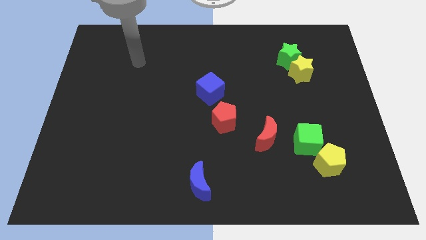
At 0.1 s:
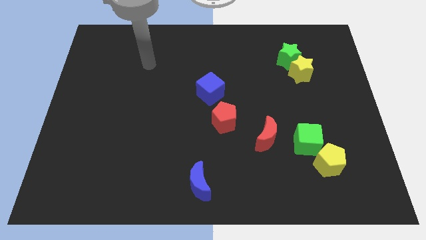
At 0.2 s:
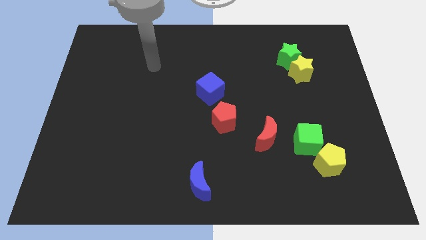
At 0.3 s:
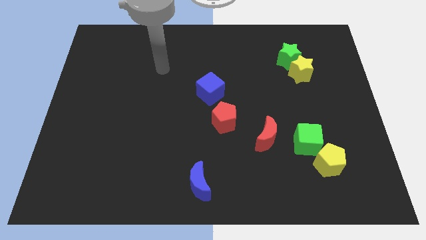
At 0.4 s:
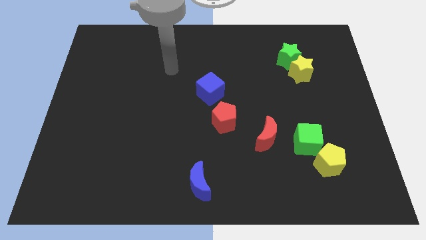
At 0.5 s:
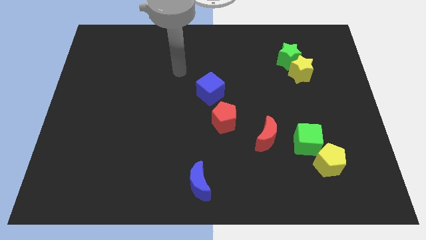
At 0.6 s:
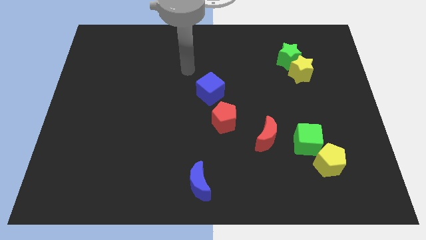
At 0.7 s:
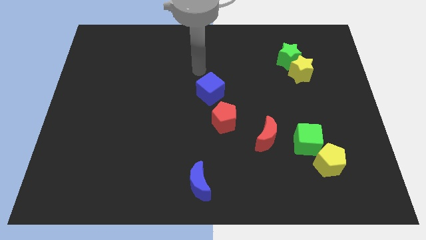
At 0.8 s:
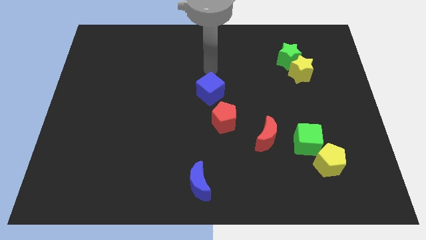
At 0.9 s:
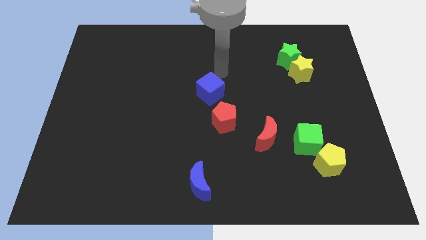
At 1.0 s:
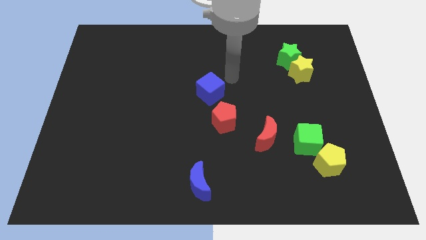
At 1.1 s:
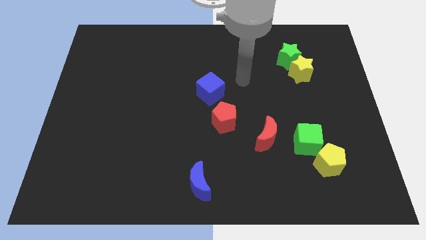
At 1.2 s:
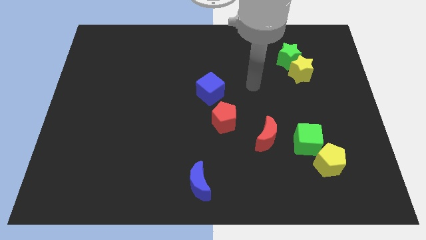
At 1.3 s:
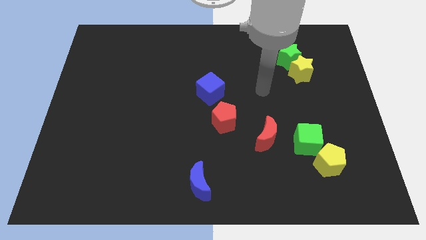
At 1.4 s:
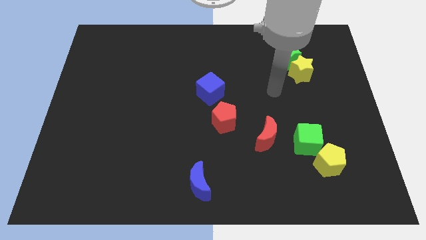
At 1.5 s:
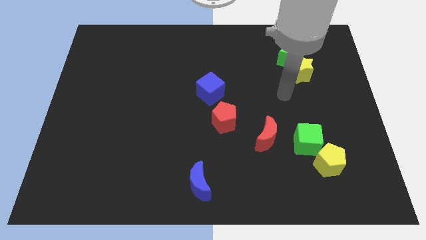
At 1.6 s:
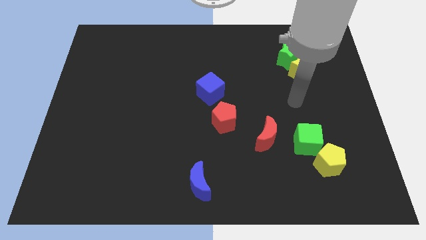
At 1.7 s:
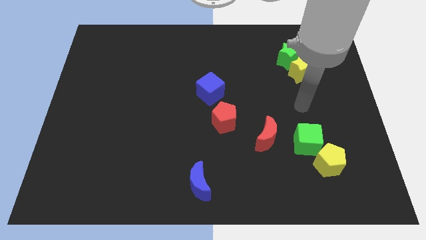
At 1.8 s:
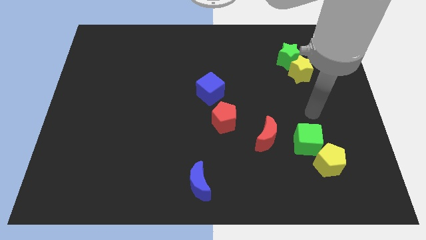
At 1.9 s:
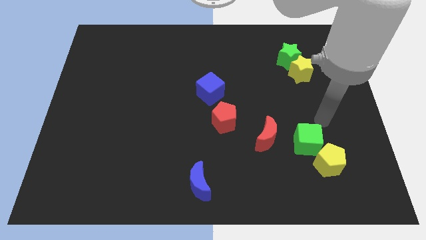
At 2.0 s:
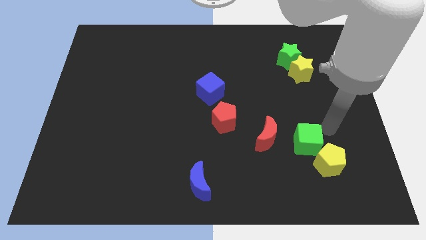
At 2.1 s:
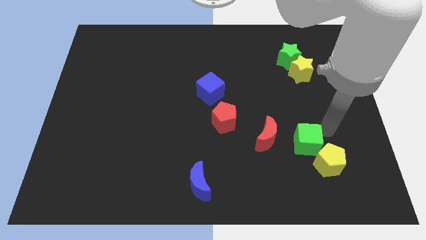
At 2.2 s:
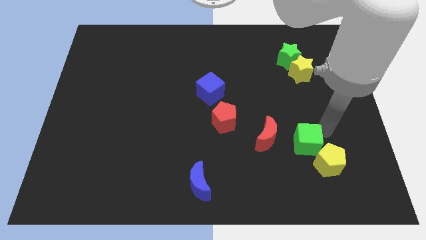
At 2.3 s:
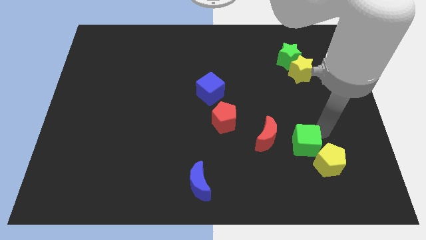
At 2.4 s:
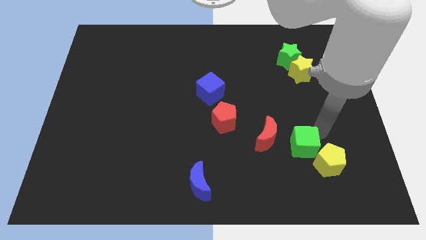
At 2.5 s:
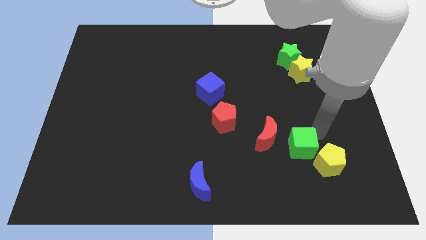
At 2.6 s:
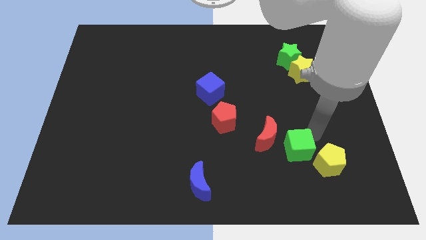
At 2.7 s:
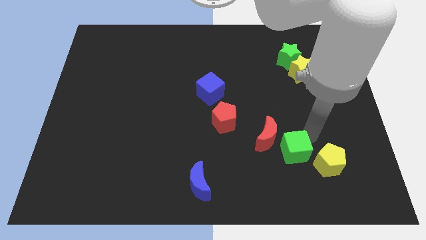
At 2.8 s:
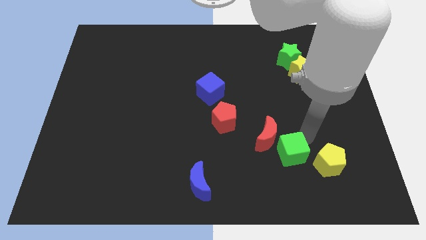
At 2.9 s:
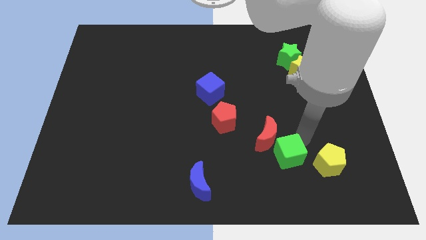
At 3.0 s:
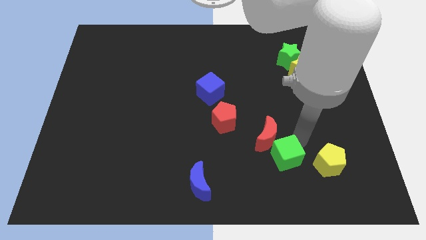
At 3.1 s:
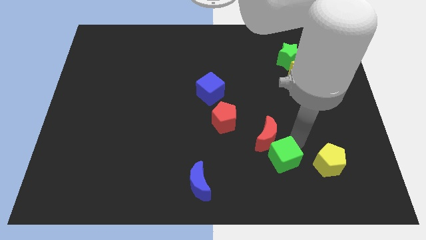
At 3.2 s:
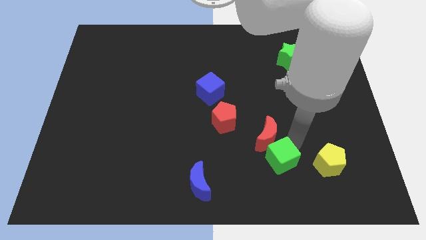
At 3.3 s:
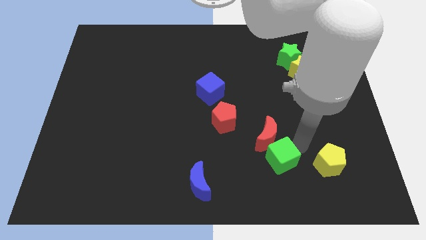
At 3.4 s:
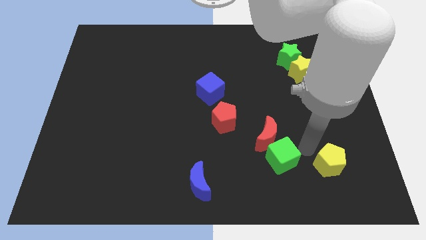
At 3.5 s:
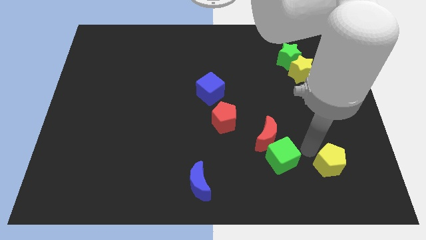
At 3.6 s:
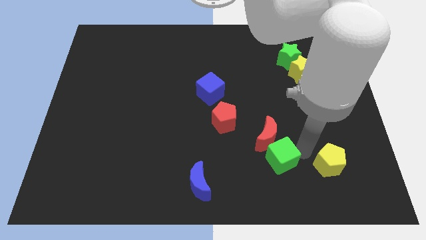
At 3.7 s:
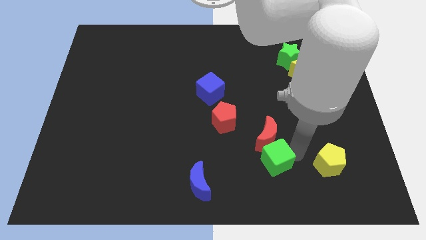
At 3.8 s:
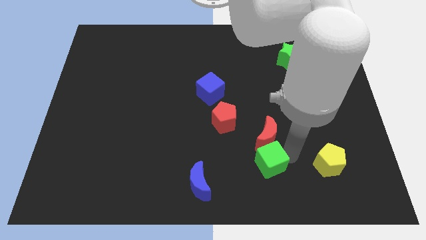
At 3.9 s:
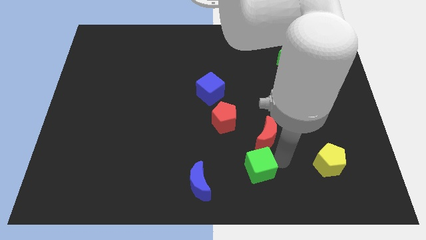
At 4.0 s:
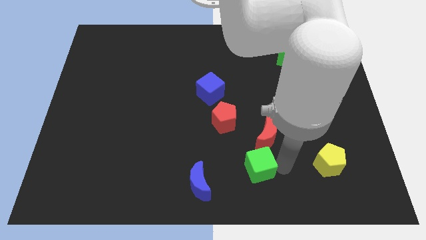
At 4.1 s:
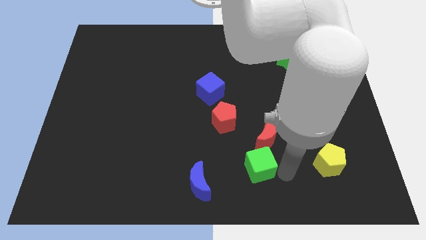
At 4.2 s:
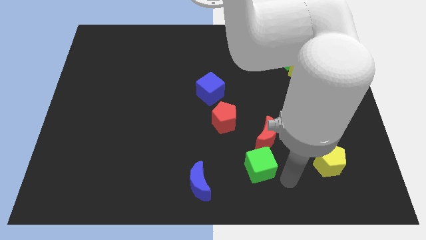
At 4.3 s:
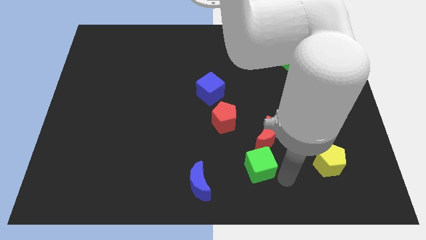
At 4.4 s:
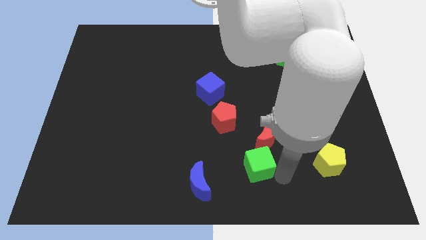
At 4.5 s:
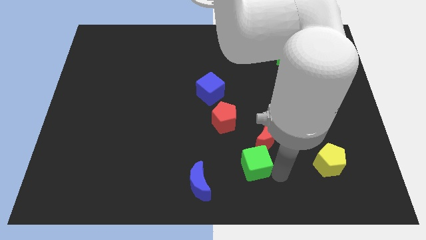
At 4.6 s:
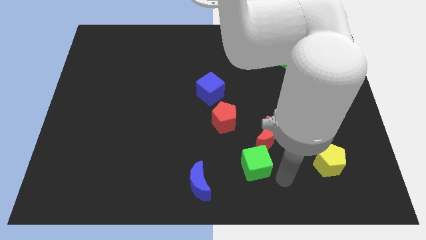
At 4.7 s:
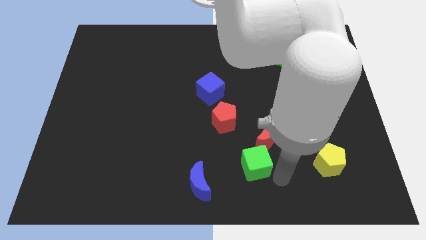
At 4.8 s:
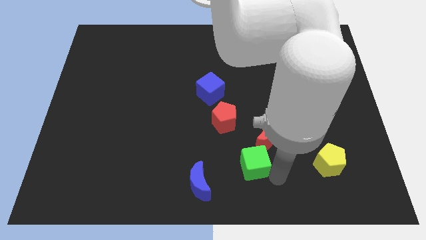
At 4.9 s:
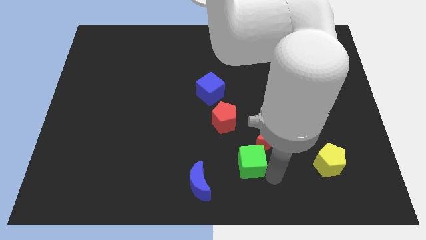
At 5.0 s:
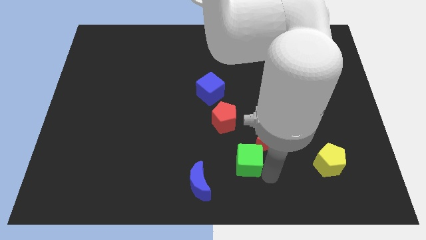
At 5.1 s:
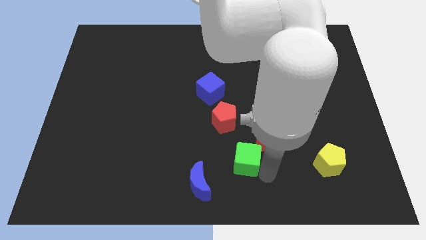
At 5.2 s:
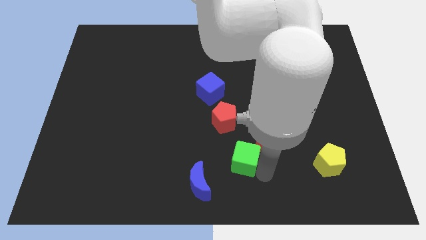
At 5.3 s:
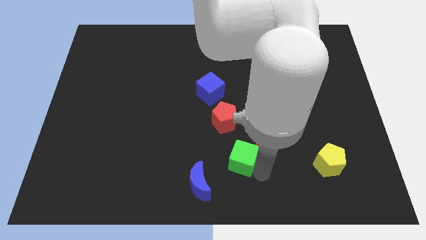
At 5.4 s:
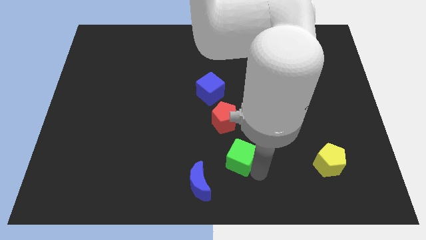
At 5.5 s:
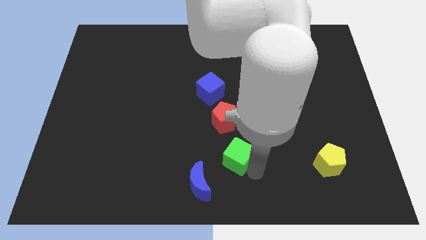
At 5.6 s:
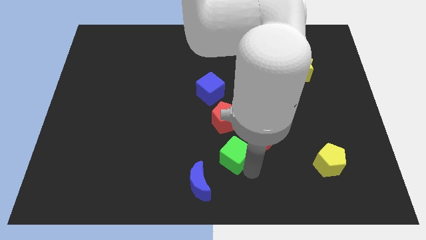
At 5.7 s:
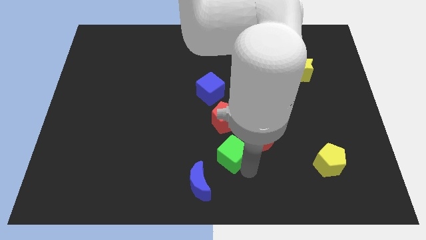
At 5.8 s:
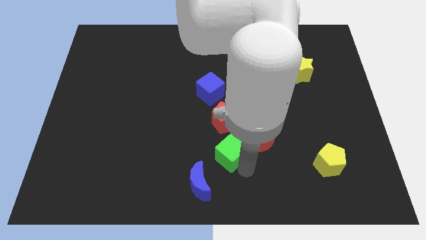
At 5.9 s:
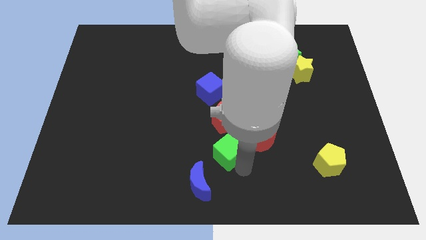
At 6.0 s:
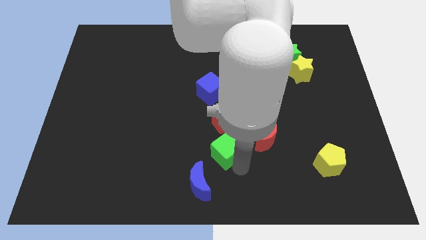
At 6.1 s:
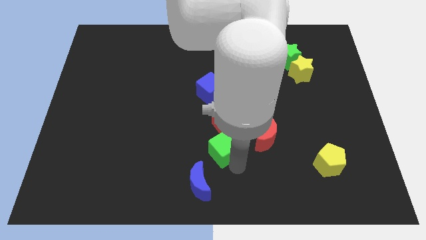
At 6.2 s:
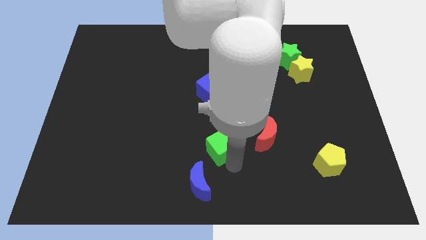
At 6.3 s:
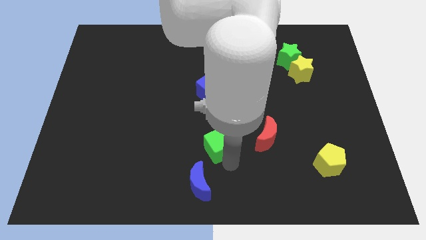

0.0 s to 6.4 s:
put the green cube below the blue cube

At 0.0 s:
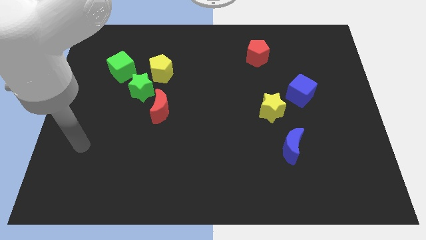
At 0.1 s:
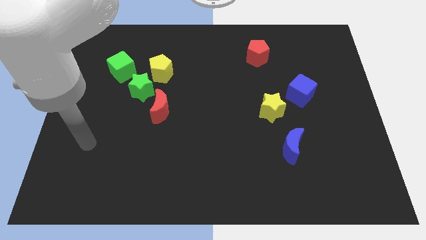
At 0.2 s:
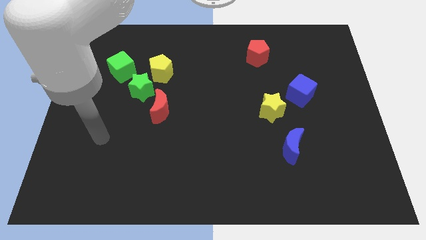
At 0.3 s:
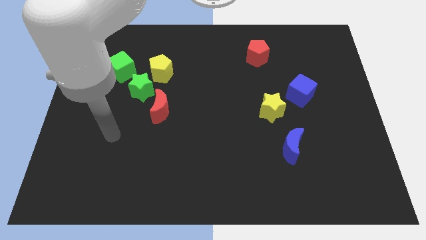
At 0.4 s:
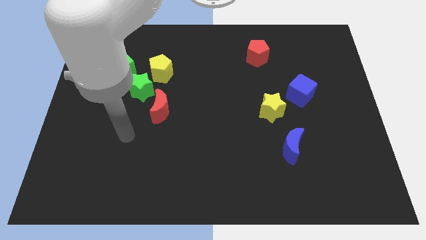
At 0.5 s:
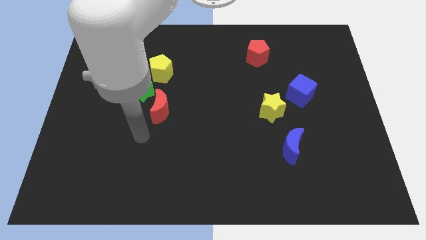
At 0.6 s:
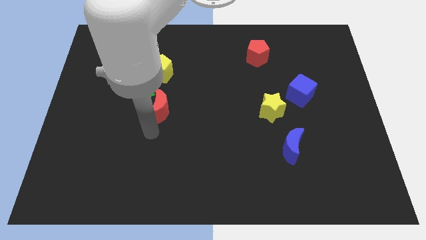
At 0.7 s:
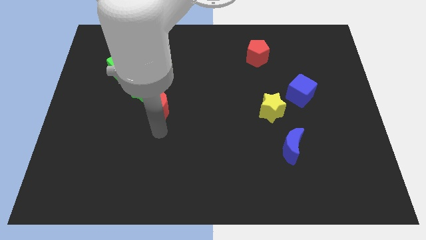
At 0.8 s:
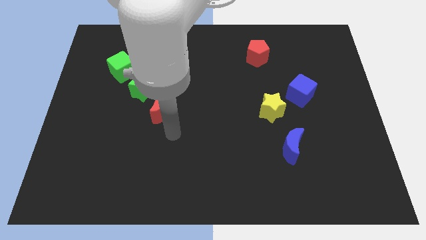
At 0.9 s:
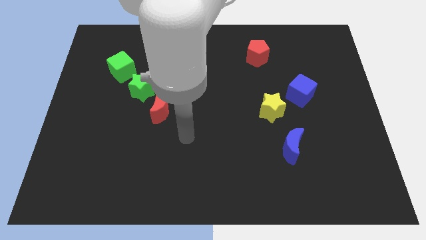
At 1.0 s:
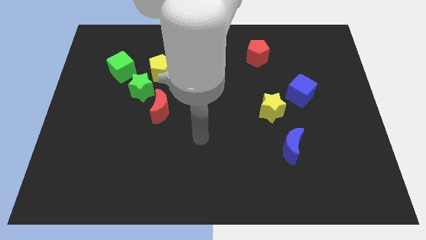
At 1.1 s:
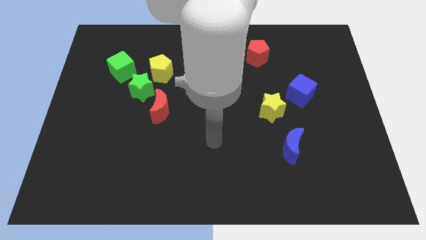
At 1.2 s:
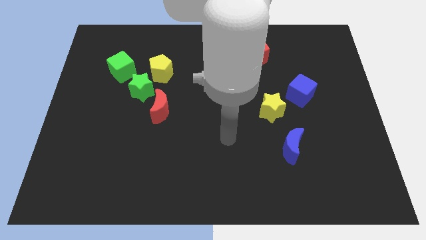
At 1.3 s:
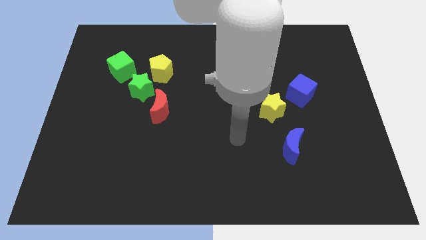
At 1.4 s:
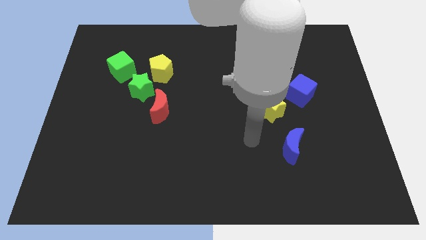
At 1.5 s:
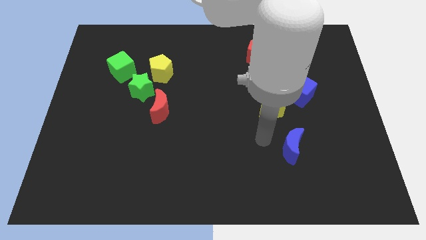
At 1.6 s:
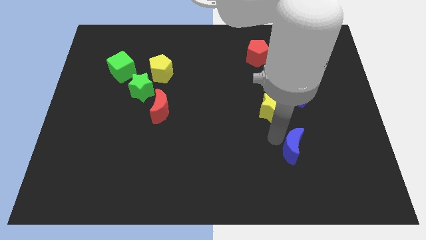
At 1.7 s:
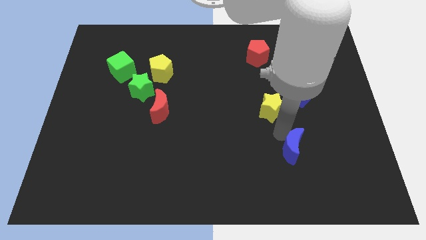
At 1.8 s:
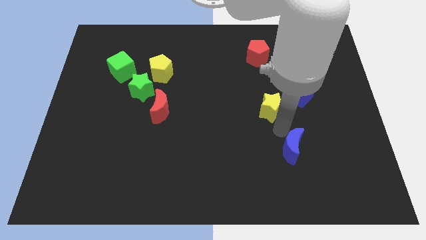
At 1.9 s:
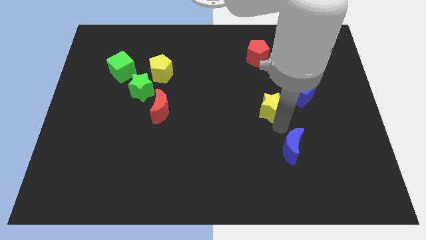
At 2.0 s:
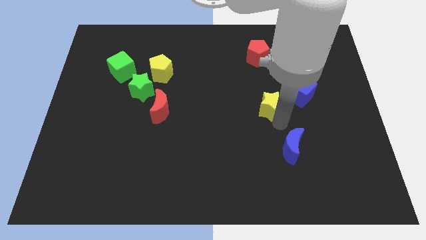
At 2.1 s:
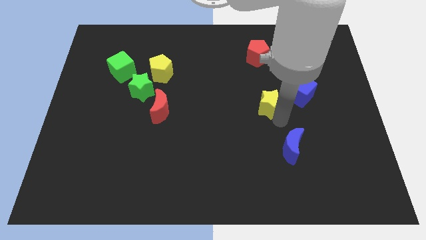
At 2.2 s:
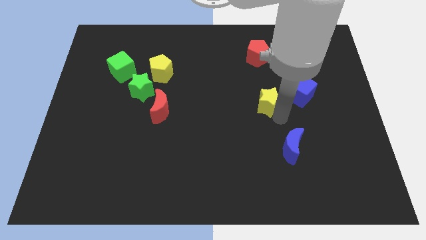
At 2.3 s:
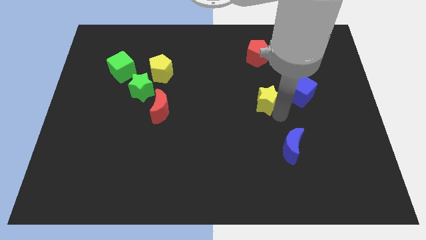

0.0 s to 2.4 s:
slide the yellow star below the red pentagon
